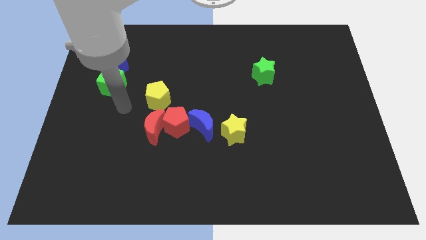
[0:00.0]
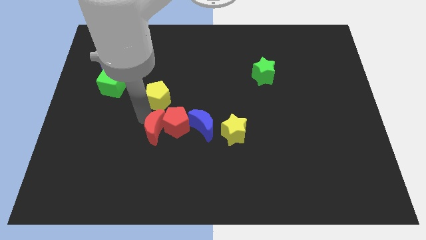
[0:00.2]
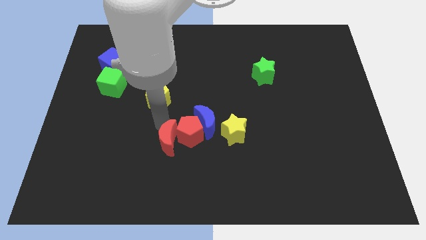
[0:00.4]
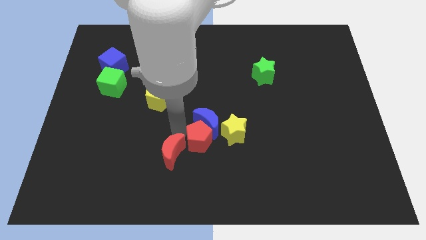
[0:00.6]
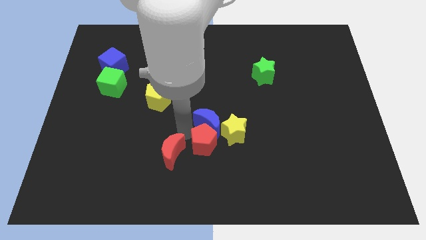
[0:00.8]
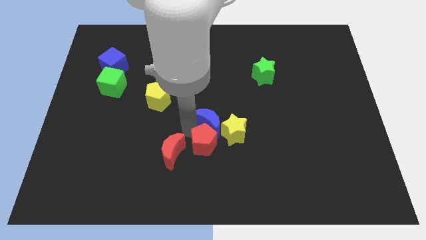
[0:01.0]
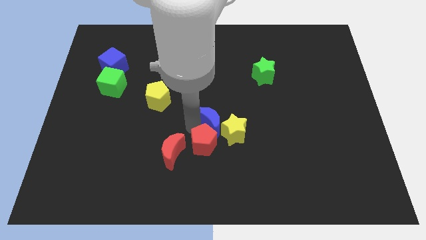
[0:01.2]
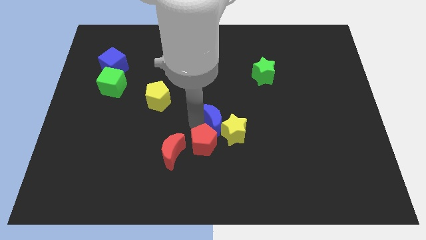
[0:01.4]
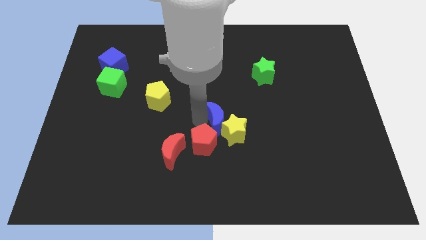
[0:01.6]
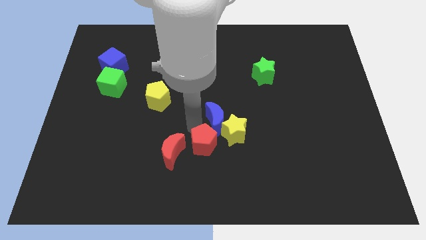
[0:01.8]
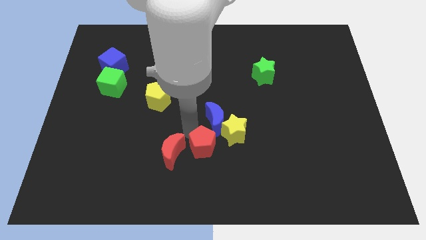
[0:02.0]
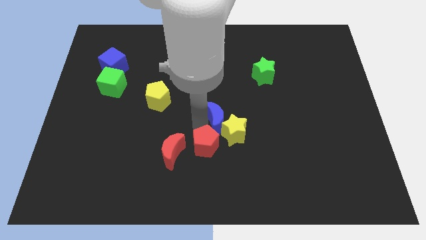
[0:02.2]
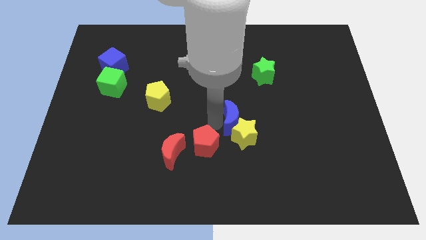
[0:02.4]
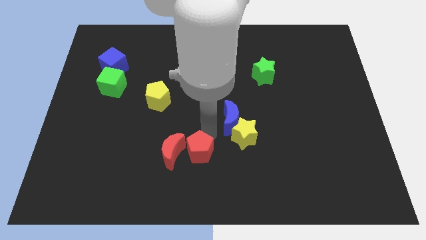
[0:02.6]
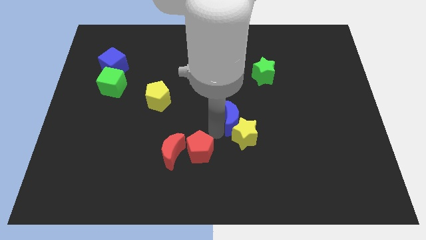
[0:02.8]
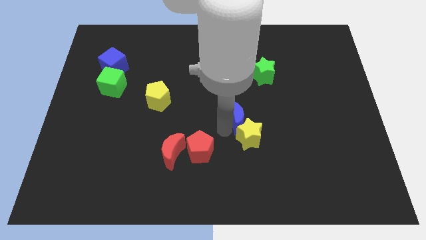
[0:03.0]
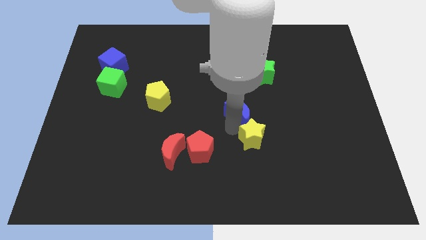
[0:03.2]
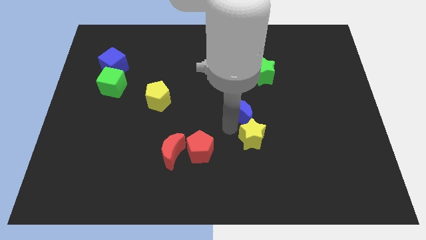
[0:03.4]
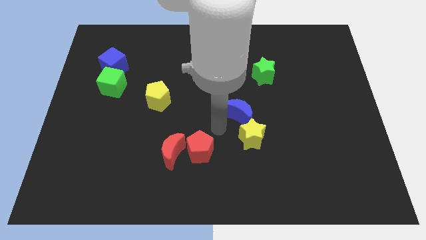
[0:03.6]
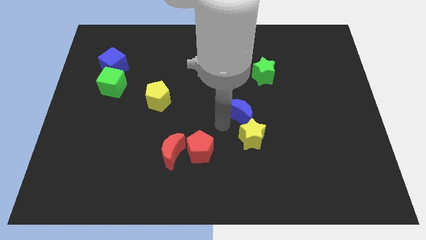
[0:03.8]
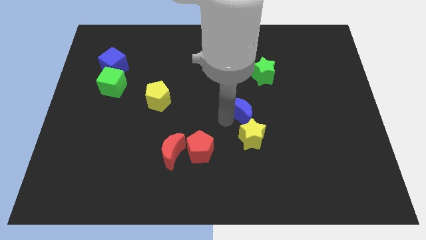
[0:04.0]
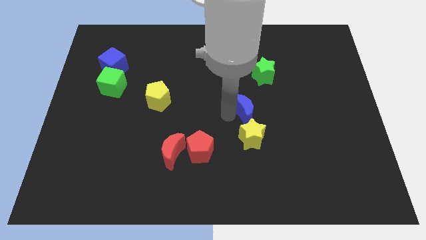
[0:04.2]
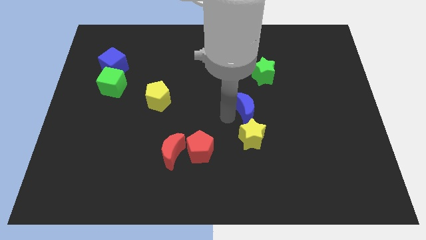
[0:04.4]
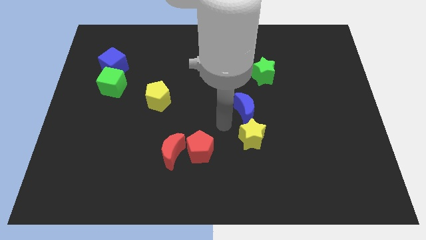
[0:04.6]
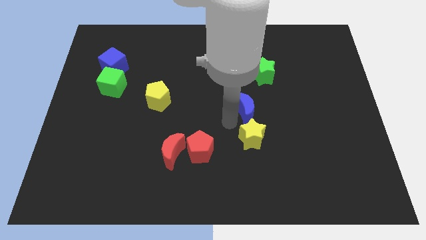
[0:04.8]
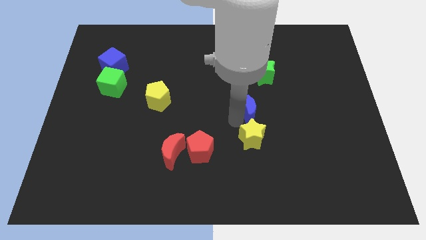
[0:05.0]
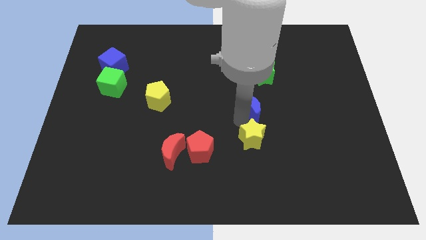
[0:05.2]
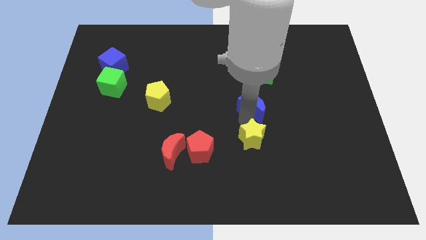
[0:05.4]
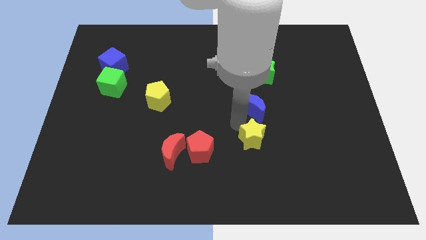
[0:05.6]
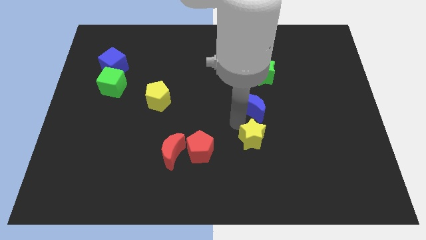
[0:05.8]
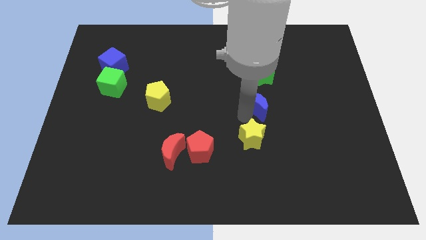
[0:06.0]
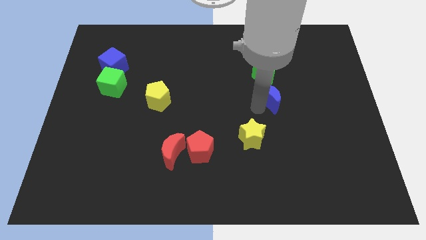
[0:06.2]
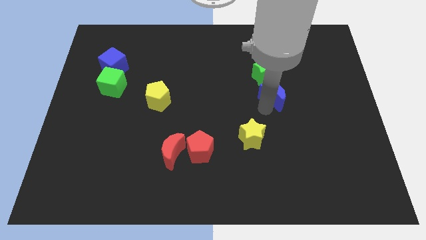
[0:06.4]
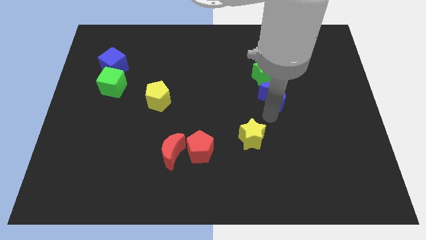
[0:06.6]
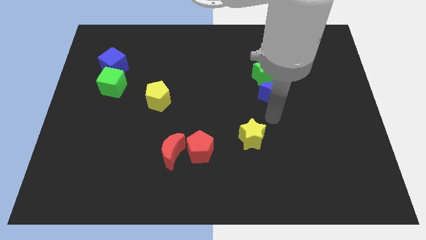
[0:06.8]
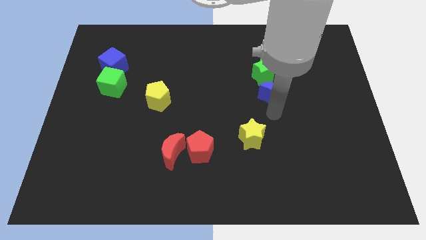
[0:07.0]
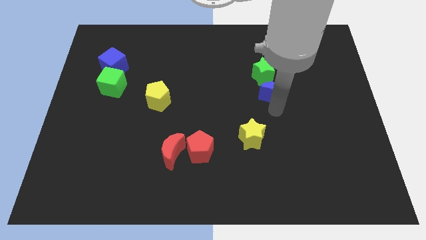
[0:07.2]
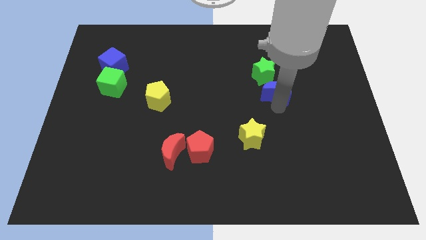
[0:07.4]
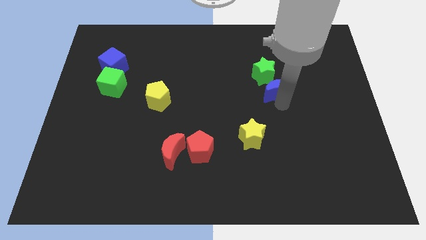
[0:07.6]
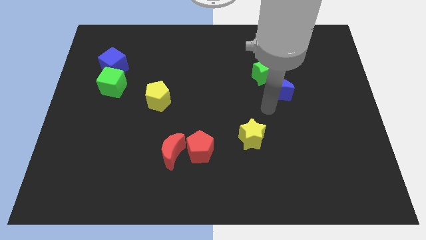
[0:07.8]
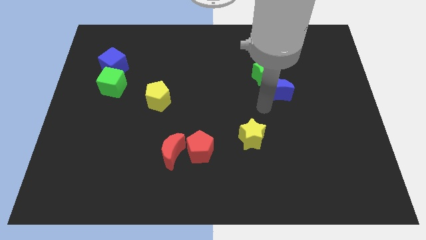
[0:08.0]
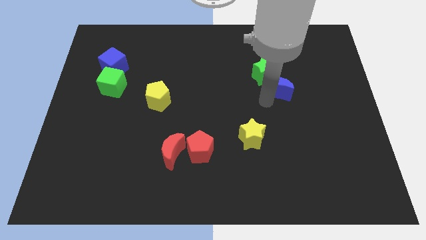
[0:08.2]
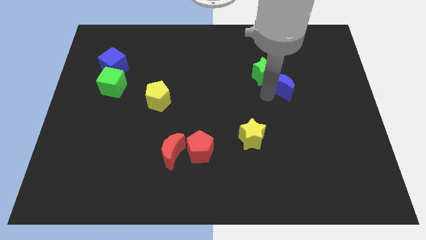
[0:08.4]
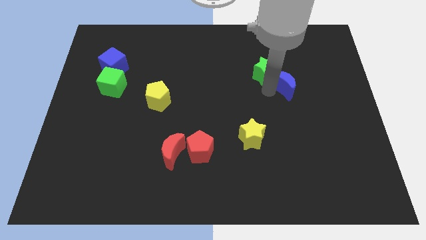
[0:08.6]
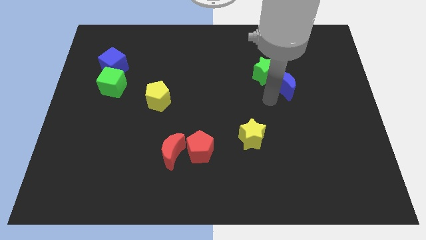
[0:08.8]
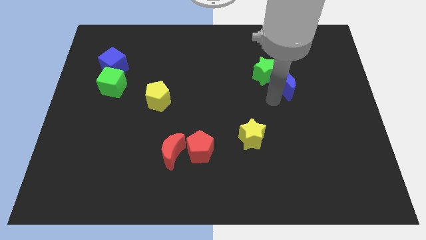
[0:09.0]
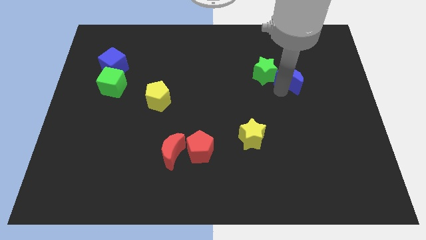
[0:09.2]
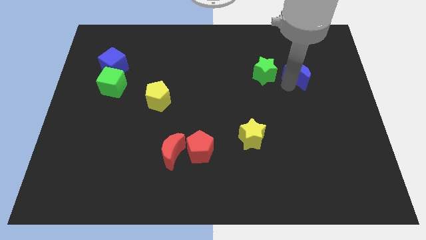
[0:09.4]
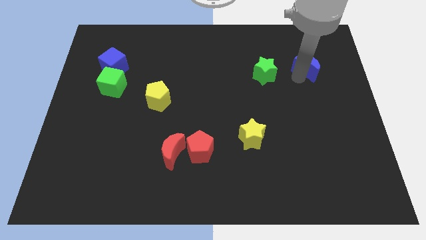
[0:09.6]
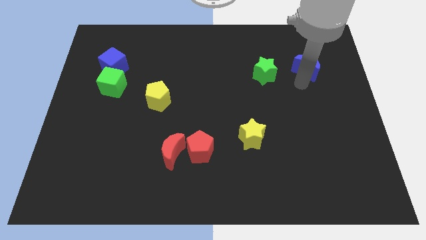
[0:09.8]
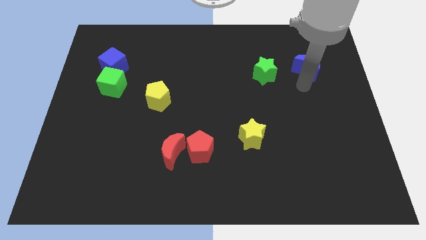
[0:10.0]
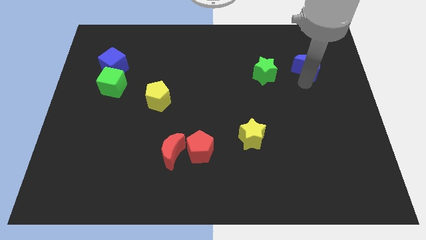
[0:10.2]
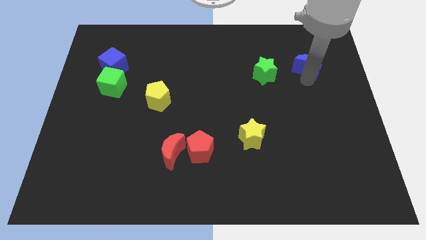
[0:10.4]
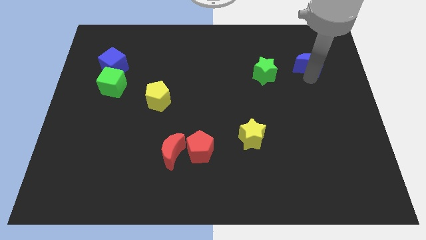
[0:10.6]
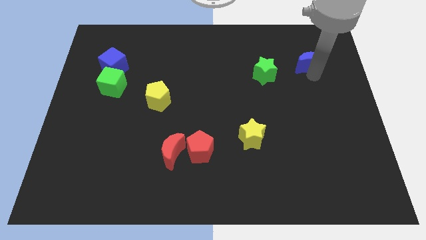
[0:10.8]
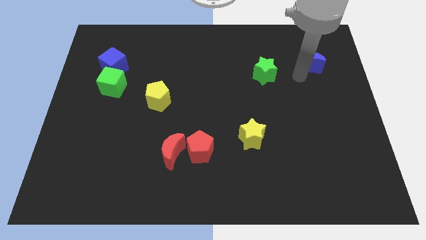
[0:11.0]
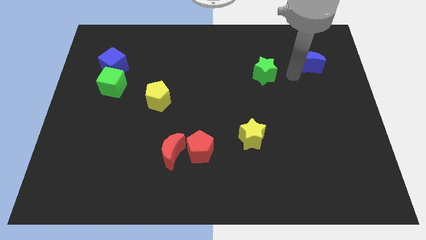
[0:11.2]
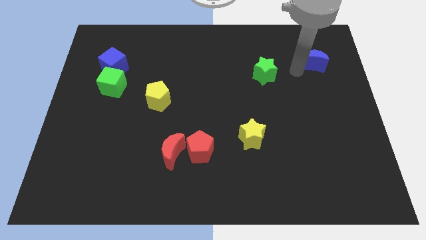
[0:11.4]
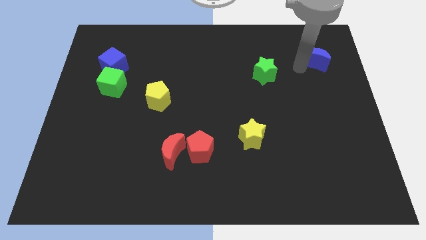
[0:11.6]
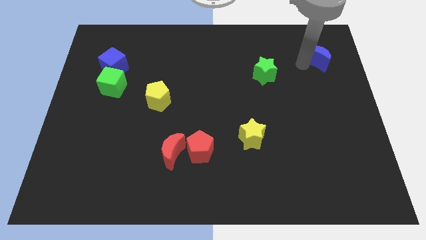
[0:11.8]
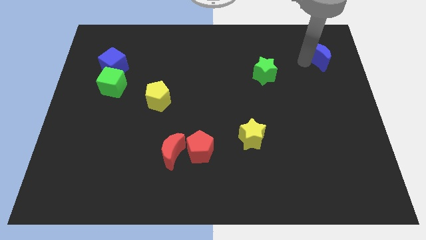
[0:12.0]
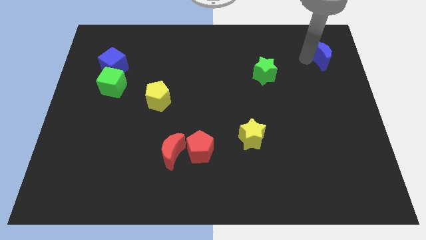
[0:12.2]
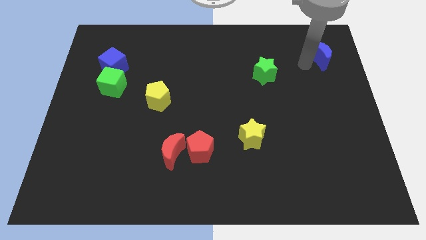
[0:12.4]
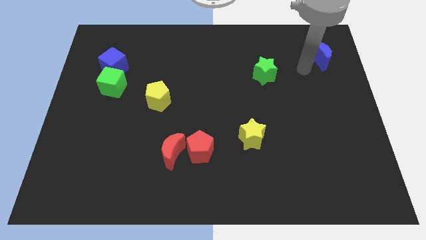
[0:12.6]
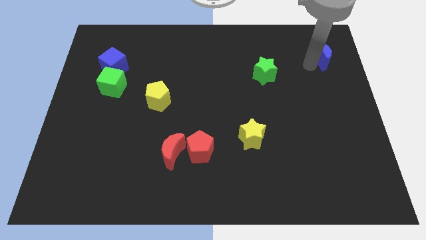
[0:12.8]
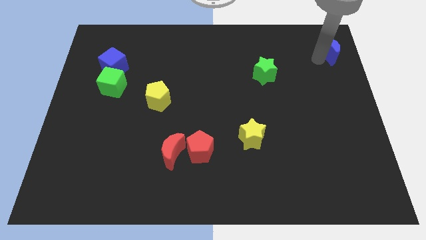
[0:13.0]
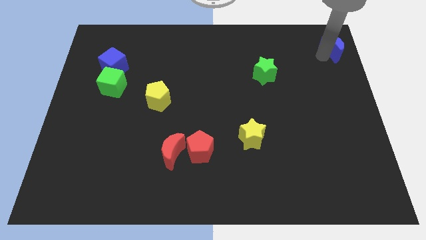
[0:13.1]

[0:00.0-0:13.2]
move the blue moon to the top right of the board

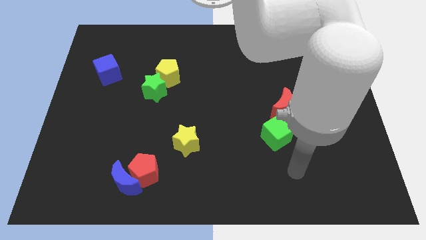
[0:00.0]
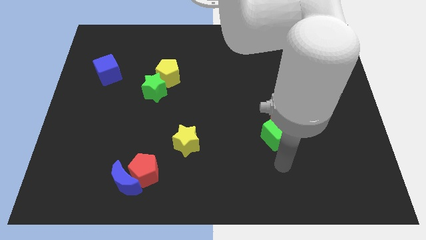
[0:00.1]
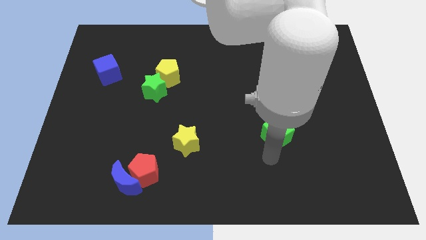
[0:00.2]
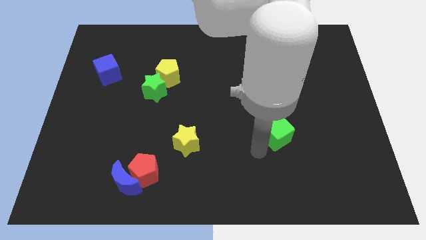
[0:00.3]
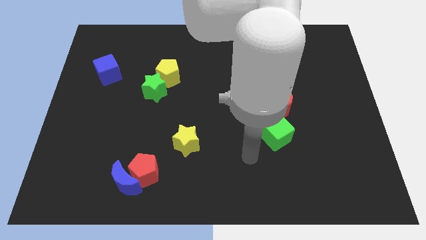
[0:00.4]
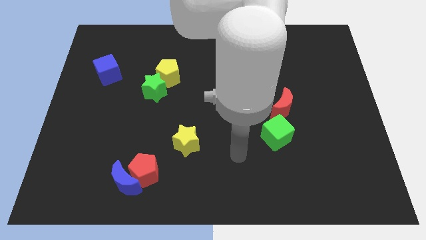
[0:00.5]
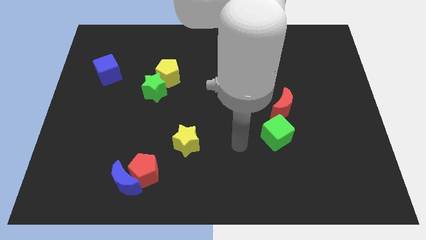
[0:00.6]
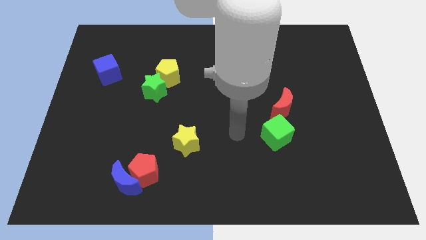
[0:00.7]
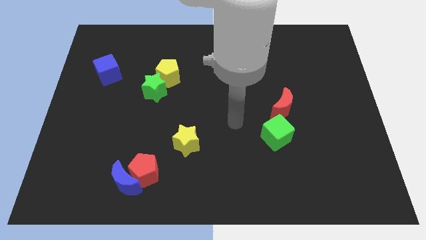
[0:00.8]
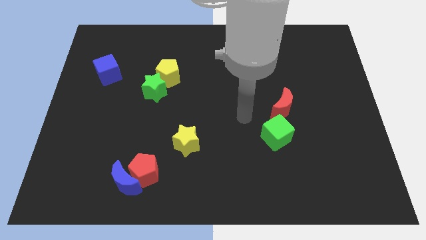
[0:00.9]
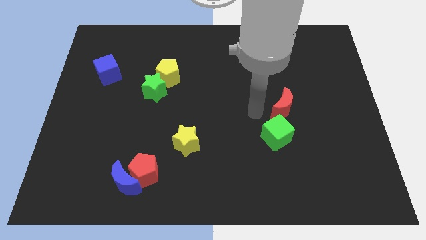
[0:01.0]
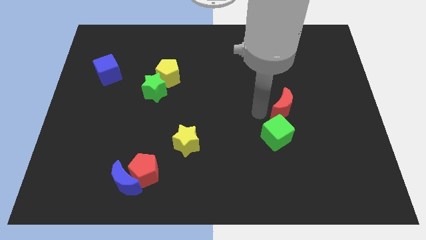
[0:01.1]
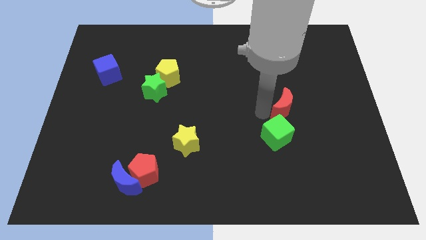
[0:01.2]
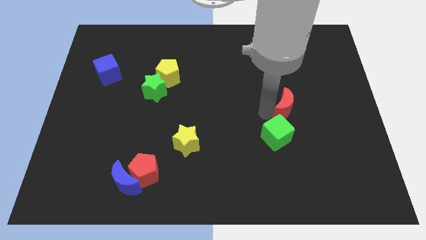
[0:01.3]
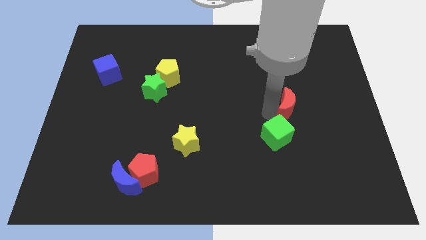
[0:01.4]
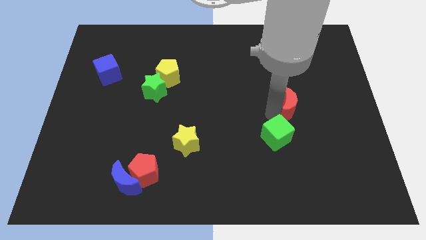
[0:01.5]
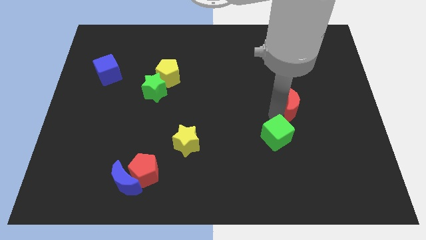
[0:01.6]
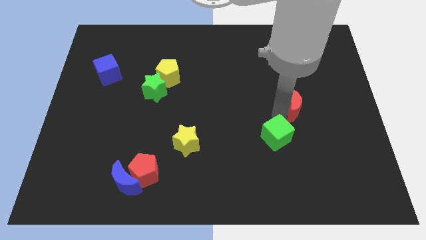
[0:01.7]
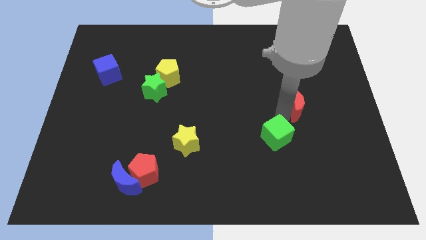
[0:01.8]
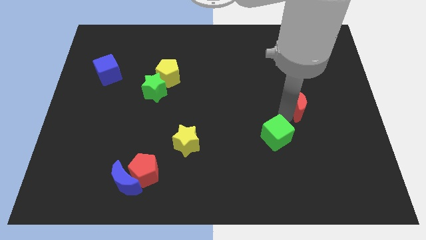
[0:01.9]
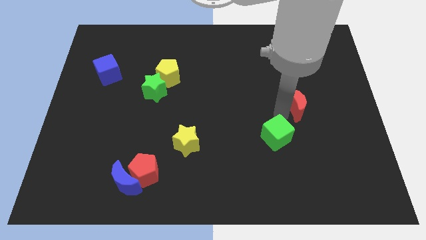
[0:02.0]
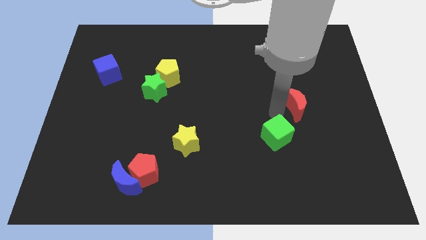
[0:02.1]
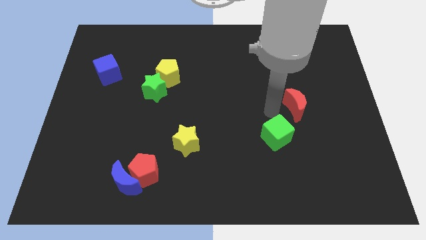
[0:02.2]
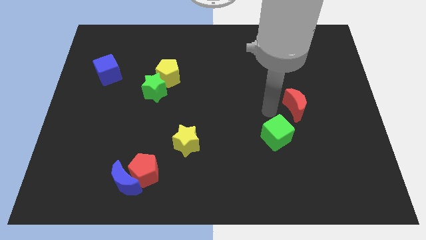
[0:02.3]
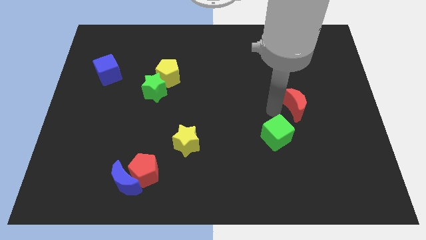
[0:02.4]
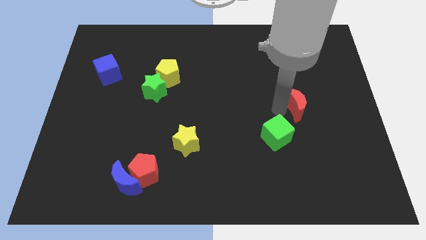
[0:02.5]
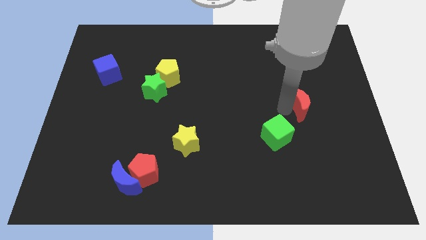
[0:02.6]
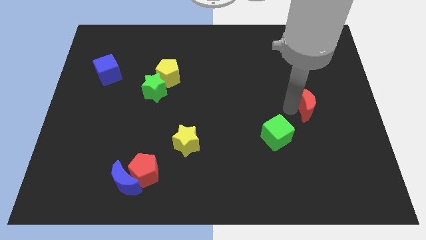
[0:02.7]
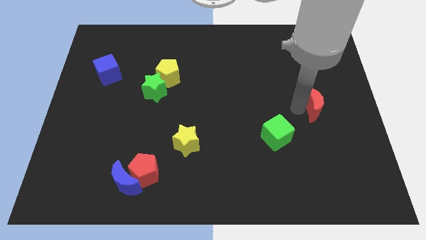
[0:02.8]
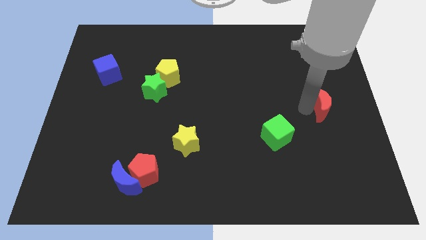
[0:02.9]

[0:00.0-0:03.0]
push the red moon to the right side of the board
